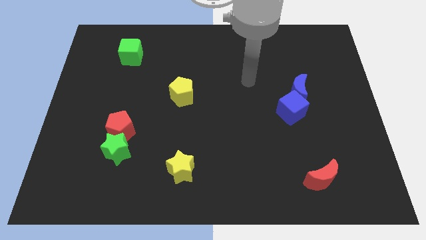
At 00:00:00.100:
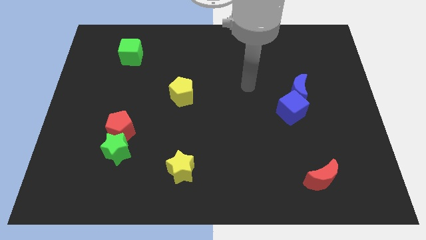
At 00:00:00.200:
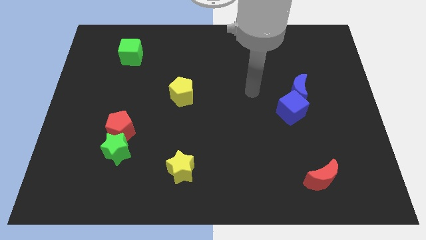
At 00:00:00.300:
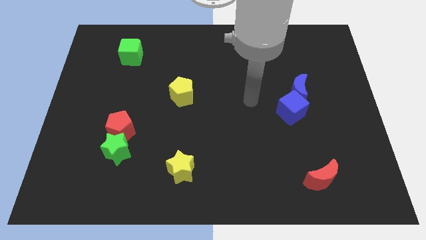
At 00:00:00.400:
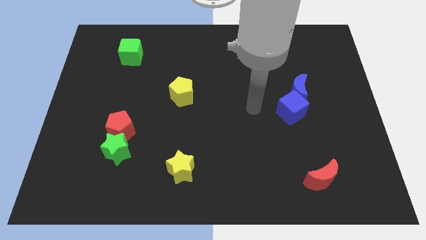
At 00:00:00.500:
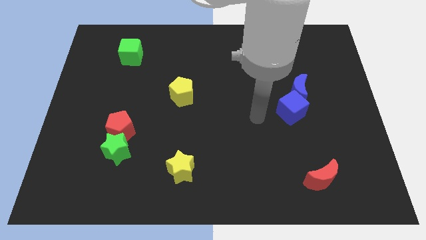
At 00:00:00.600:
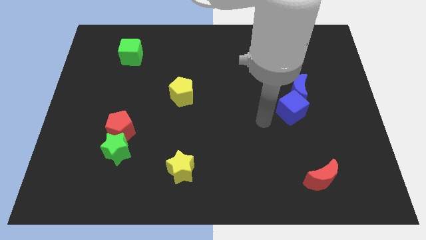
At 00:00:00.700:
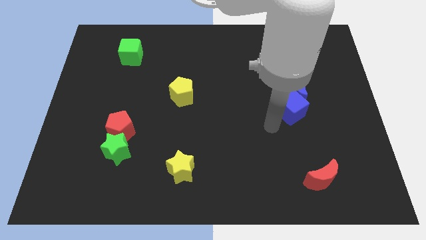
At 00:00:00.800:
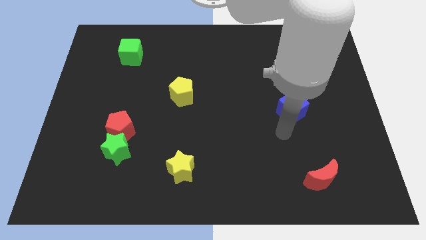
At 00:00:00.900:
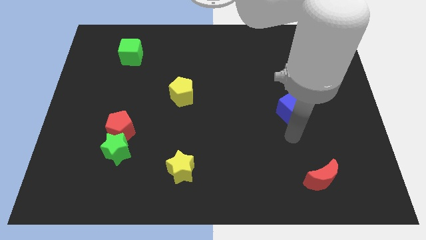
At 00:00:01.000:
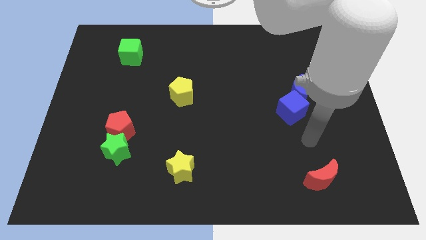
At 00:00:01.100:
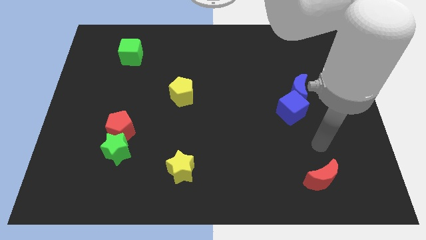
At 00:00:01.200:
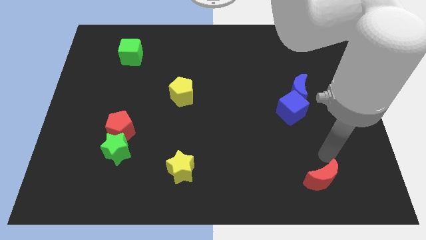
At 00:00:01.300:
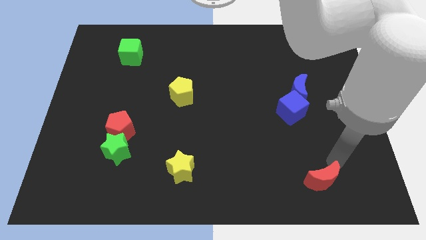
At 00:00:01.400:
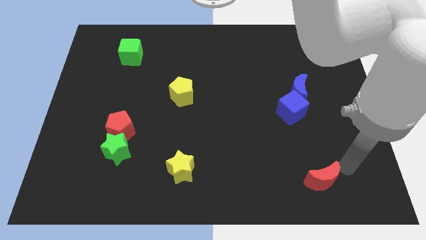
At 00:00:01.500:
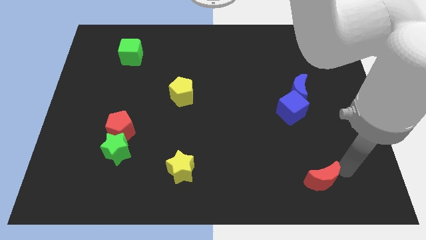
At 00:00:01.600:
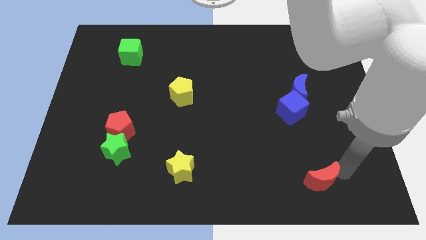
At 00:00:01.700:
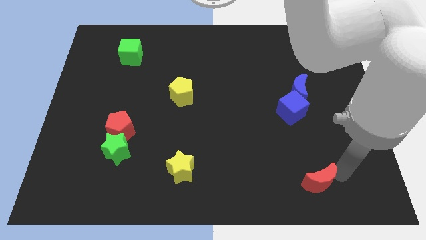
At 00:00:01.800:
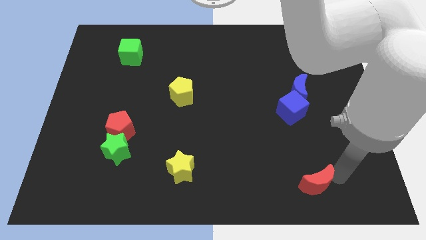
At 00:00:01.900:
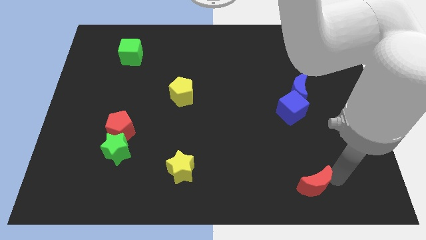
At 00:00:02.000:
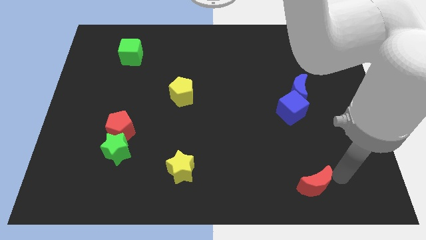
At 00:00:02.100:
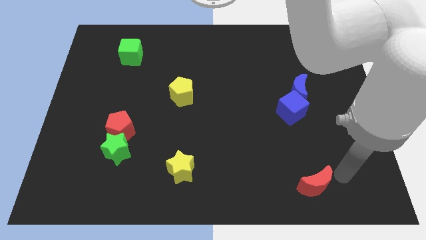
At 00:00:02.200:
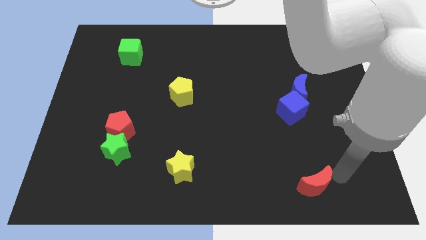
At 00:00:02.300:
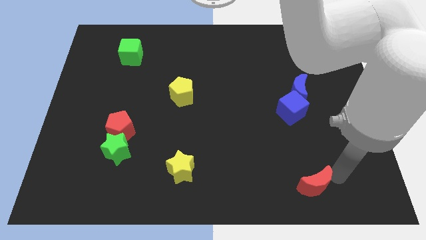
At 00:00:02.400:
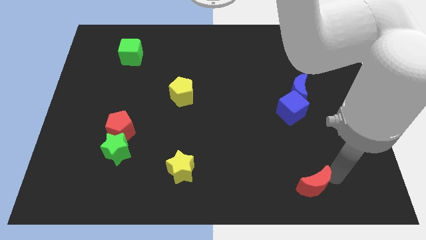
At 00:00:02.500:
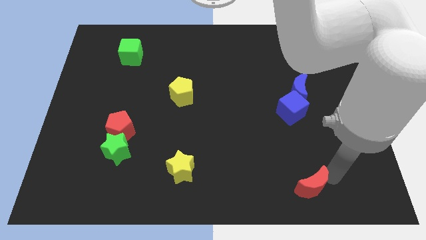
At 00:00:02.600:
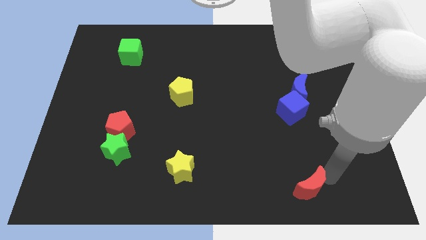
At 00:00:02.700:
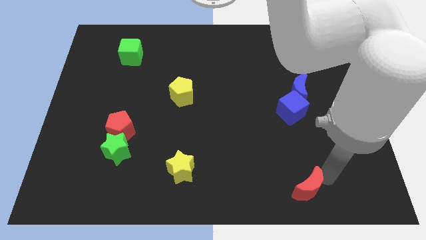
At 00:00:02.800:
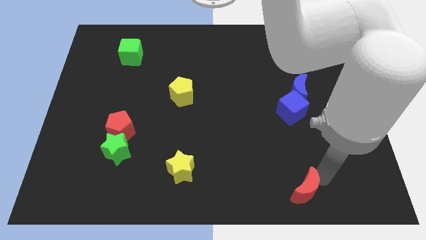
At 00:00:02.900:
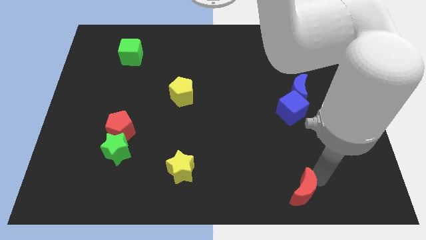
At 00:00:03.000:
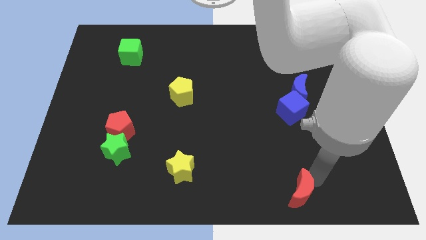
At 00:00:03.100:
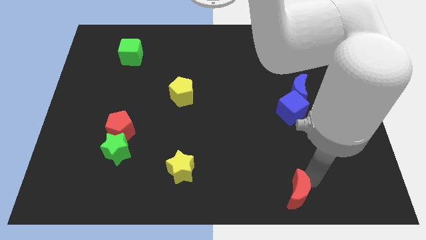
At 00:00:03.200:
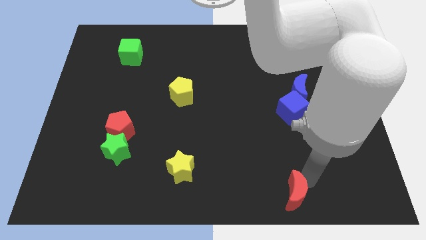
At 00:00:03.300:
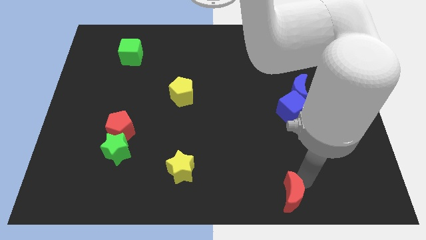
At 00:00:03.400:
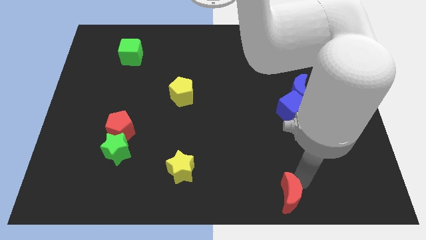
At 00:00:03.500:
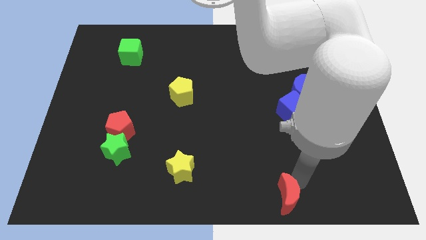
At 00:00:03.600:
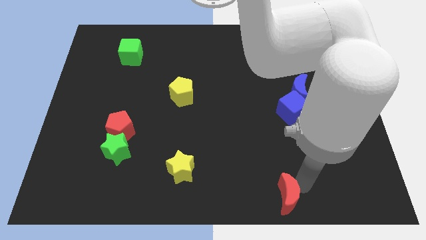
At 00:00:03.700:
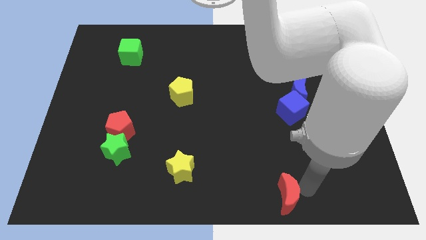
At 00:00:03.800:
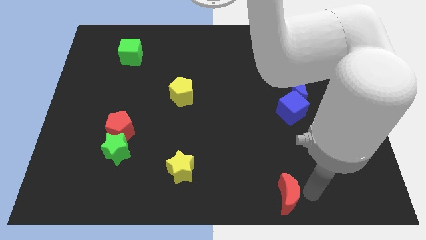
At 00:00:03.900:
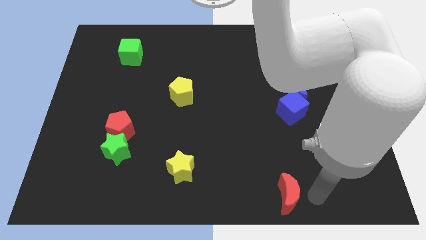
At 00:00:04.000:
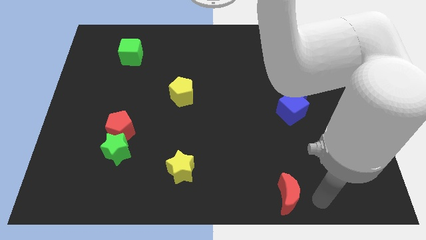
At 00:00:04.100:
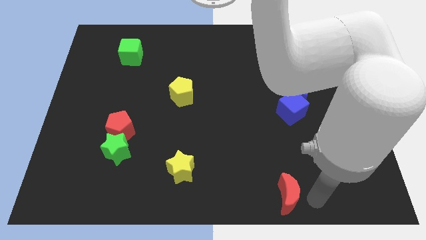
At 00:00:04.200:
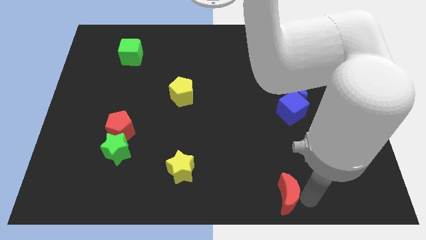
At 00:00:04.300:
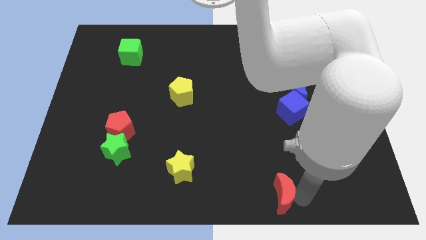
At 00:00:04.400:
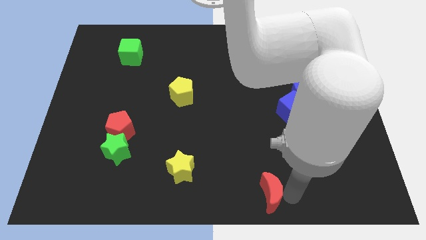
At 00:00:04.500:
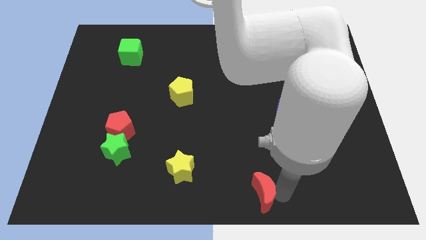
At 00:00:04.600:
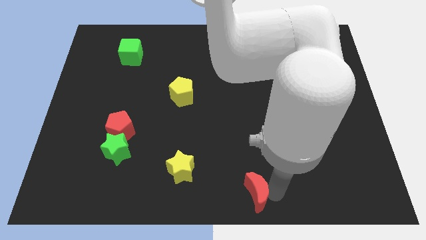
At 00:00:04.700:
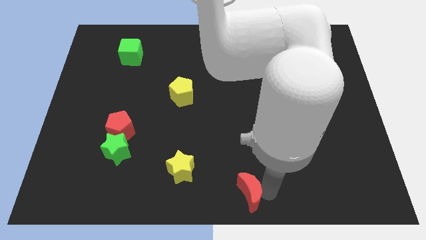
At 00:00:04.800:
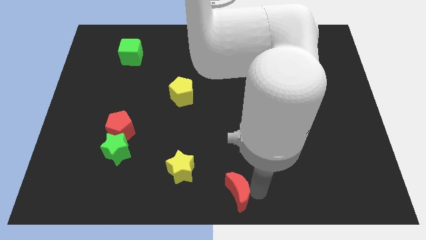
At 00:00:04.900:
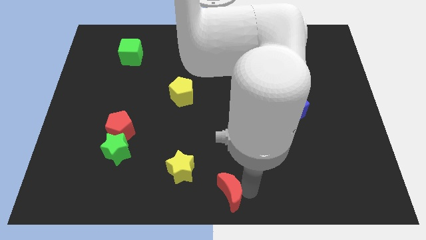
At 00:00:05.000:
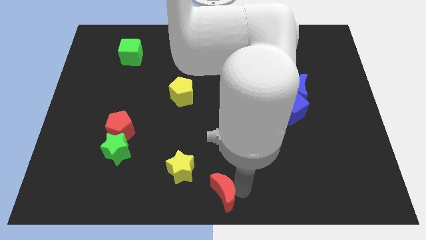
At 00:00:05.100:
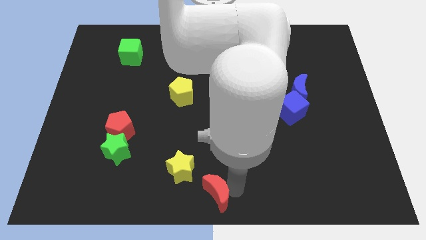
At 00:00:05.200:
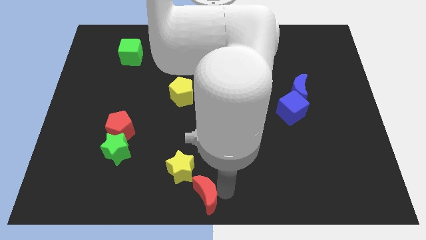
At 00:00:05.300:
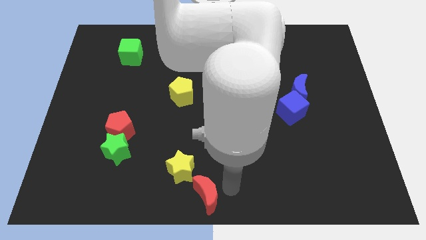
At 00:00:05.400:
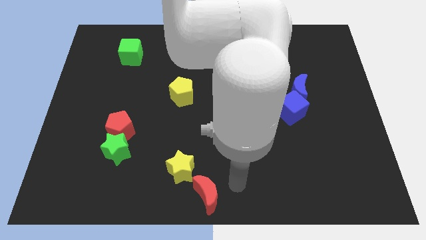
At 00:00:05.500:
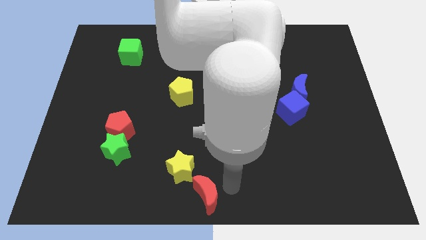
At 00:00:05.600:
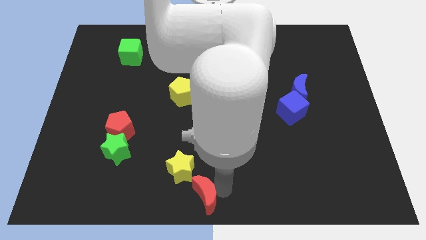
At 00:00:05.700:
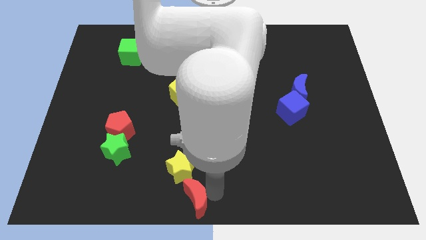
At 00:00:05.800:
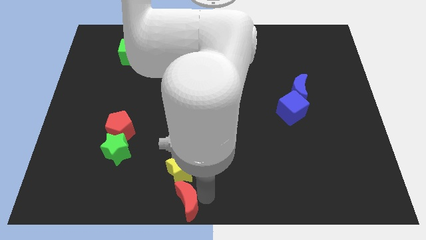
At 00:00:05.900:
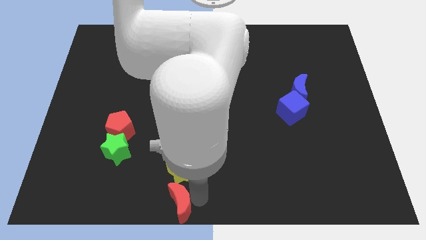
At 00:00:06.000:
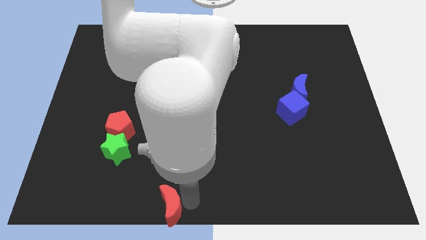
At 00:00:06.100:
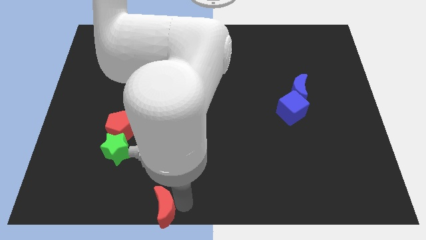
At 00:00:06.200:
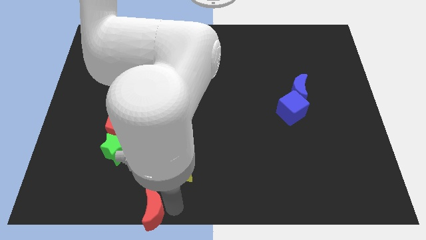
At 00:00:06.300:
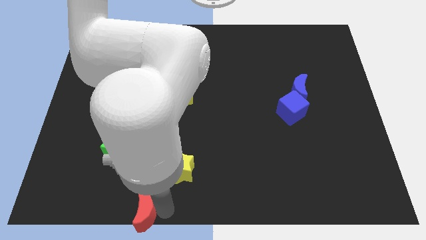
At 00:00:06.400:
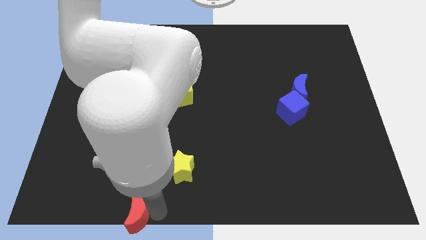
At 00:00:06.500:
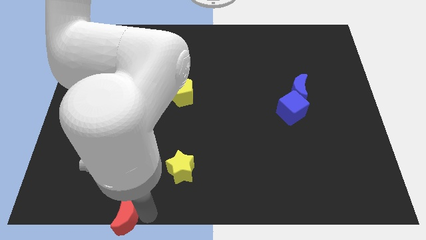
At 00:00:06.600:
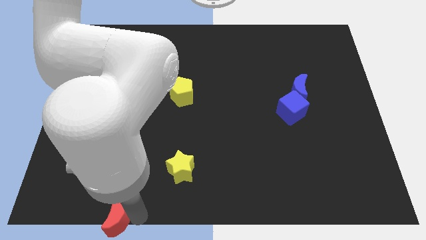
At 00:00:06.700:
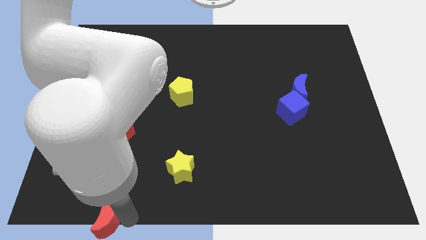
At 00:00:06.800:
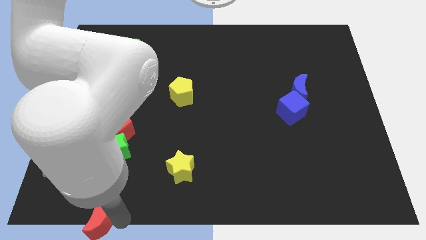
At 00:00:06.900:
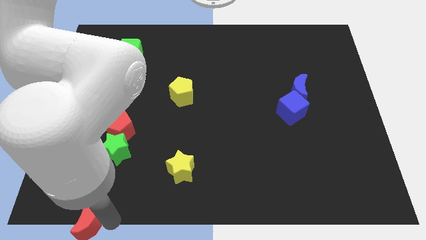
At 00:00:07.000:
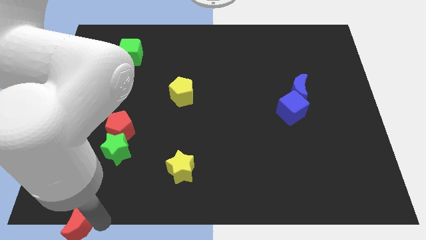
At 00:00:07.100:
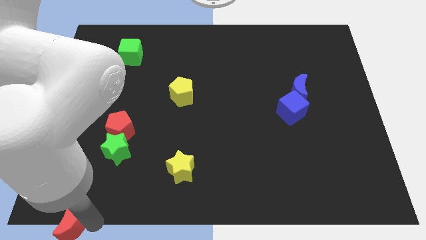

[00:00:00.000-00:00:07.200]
put the red moon to the bottom left corner

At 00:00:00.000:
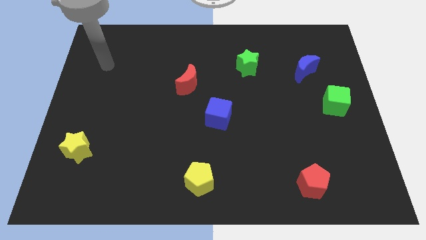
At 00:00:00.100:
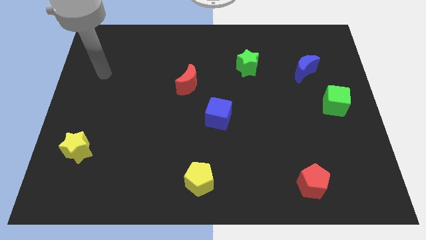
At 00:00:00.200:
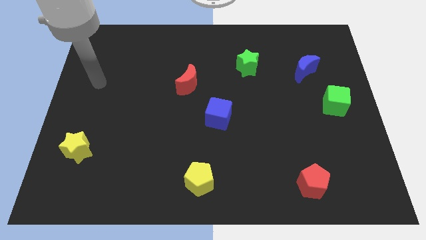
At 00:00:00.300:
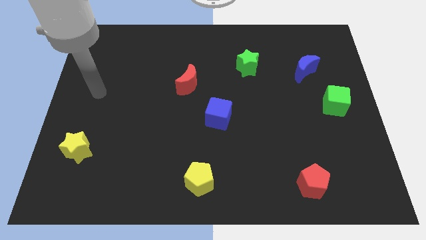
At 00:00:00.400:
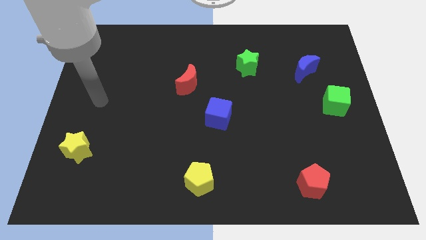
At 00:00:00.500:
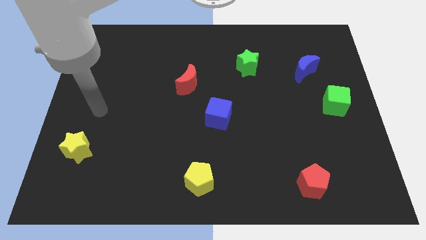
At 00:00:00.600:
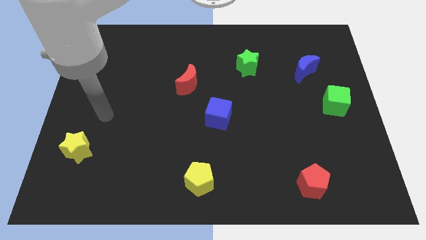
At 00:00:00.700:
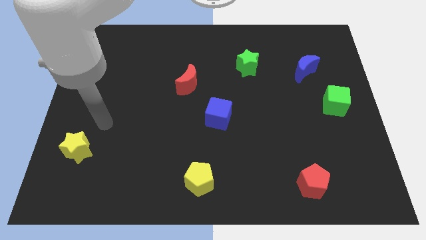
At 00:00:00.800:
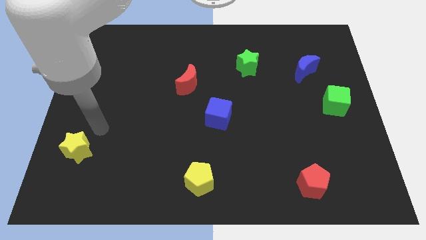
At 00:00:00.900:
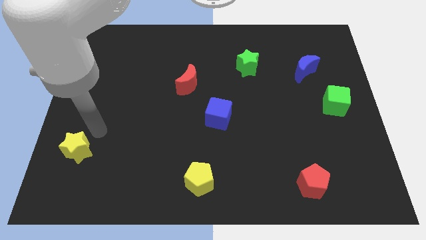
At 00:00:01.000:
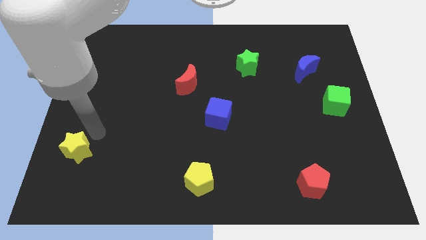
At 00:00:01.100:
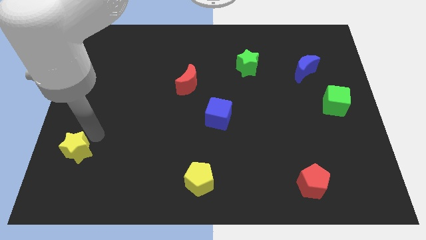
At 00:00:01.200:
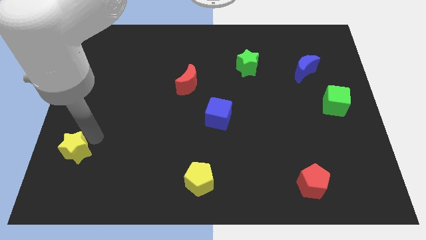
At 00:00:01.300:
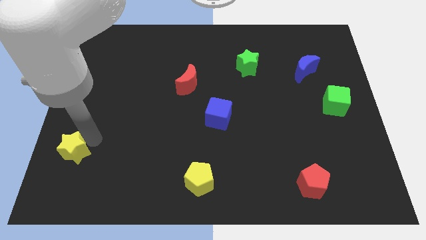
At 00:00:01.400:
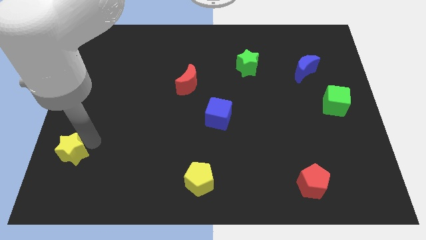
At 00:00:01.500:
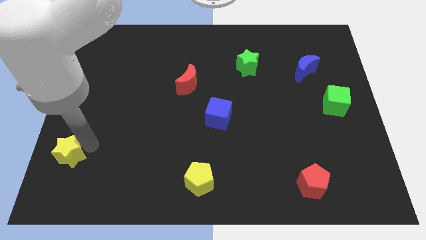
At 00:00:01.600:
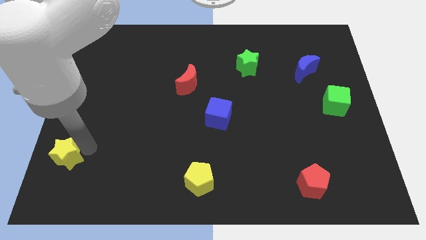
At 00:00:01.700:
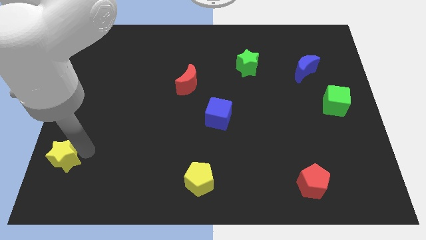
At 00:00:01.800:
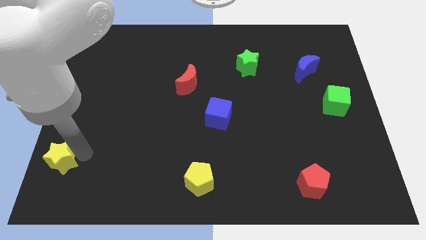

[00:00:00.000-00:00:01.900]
push the yellow star to the bottom left corner
